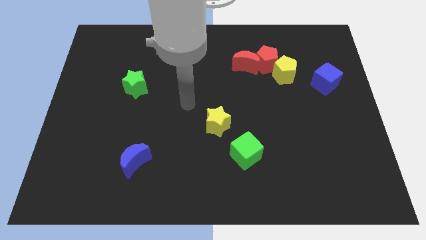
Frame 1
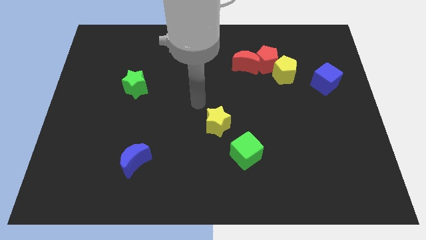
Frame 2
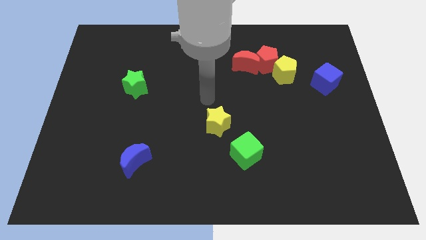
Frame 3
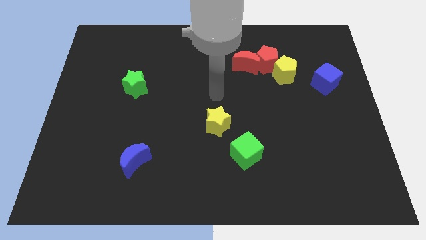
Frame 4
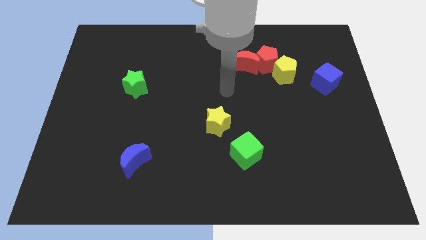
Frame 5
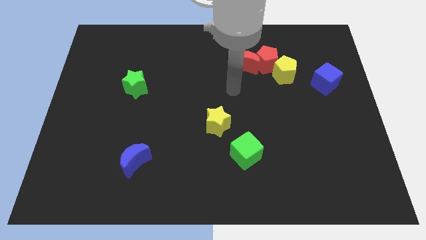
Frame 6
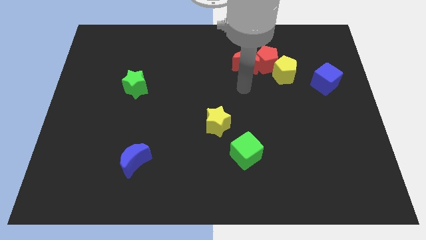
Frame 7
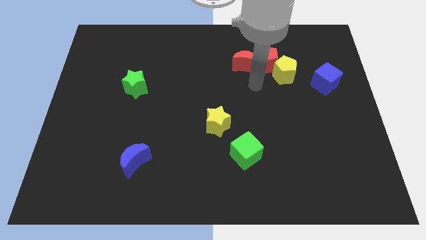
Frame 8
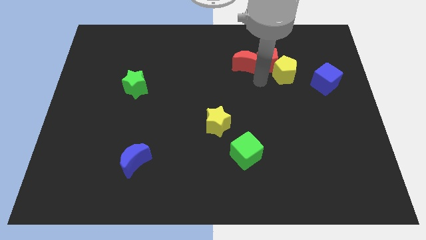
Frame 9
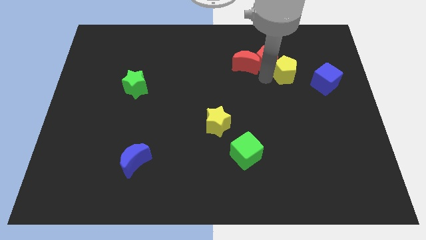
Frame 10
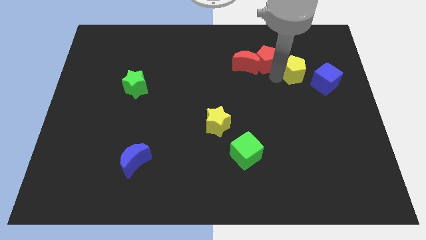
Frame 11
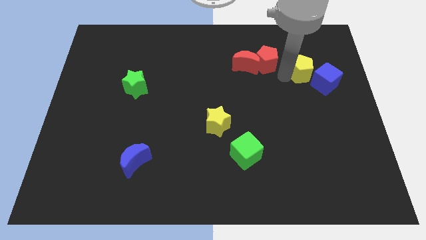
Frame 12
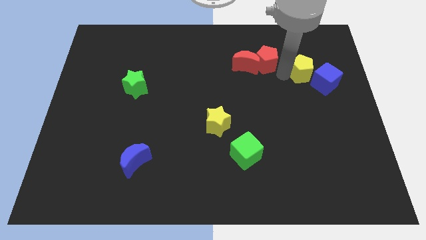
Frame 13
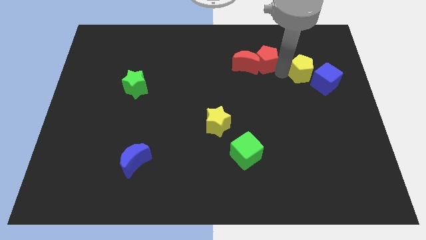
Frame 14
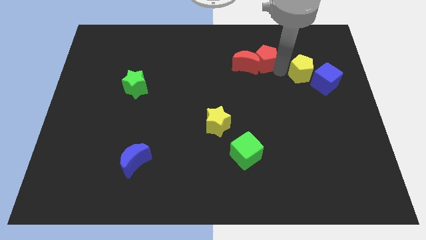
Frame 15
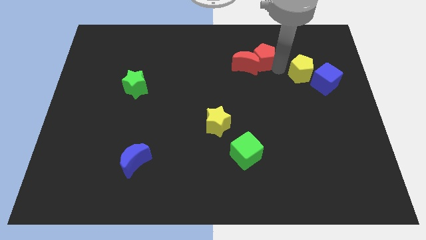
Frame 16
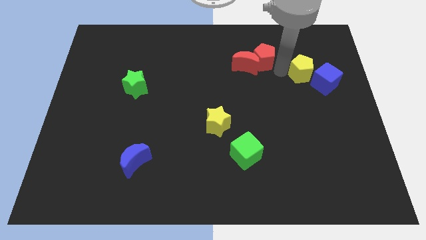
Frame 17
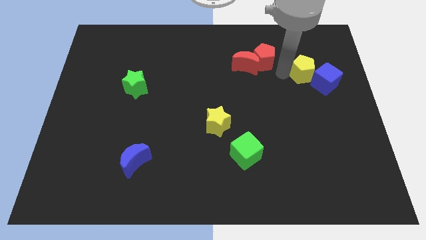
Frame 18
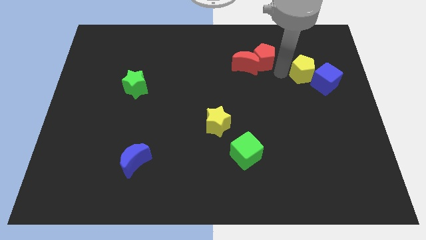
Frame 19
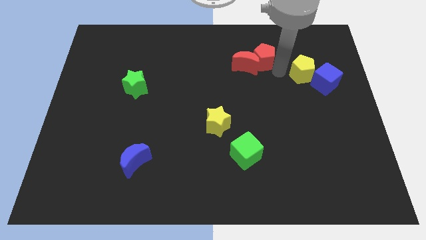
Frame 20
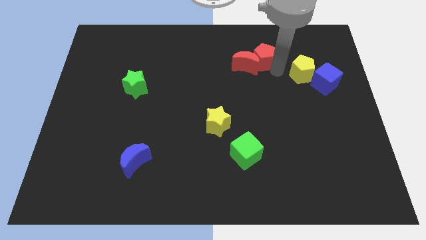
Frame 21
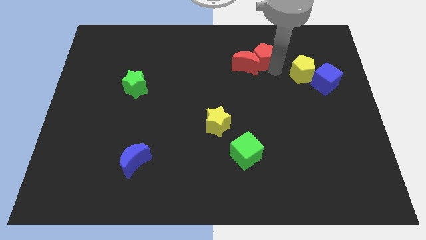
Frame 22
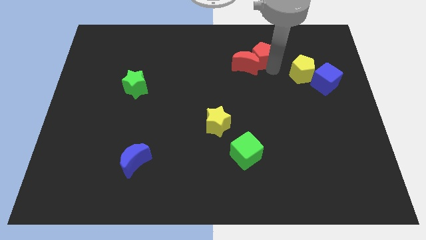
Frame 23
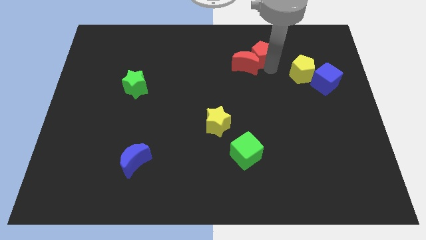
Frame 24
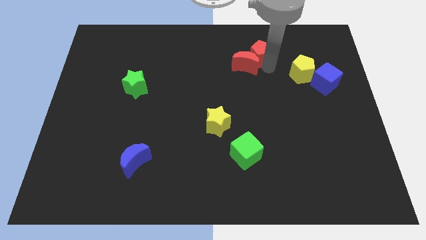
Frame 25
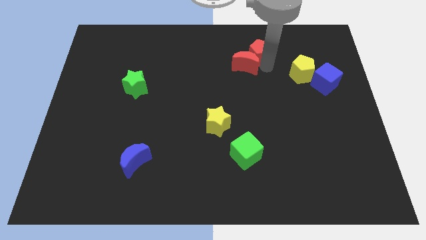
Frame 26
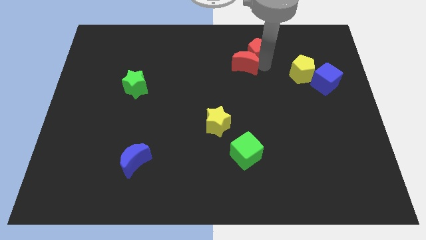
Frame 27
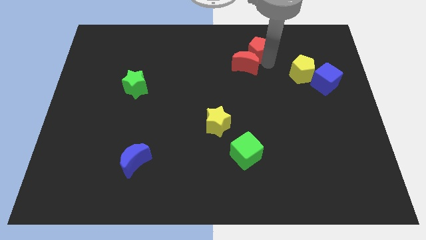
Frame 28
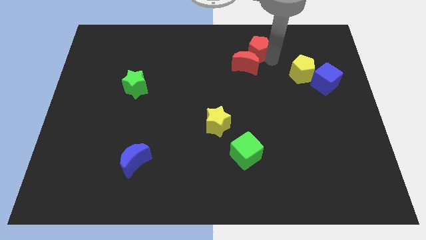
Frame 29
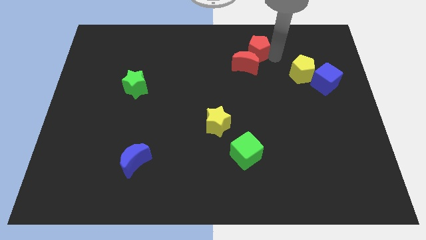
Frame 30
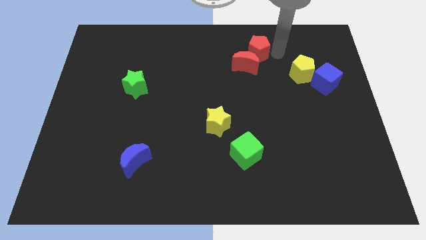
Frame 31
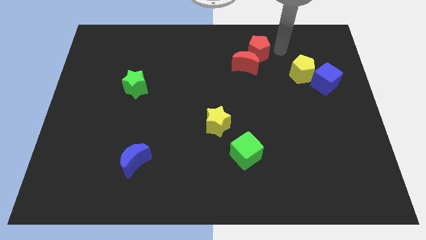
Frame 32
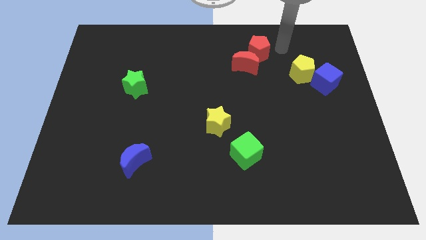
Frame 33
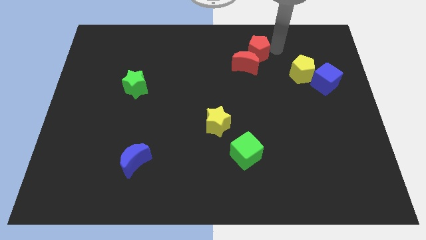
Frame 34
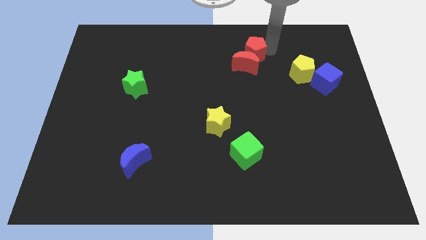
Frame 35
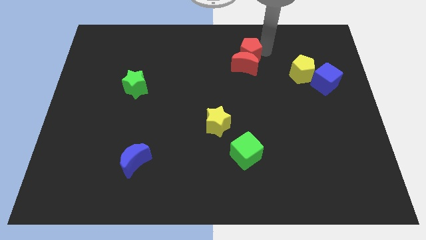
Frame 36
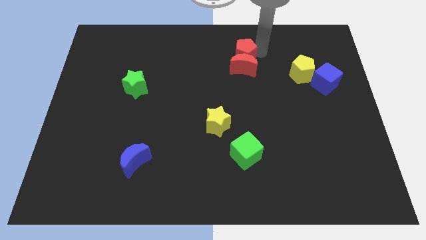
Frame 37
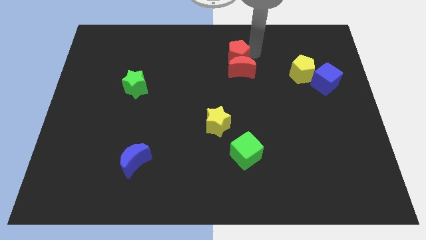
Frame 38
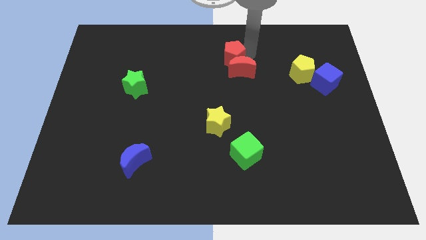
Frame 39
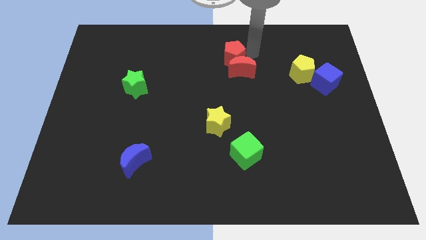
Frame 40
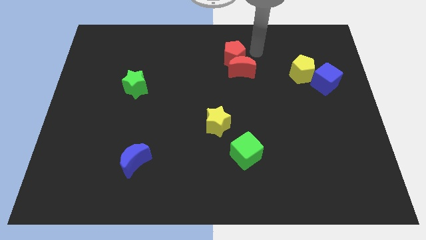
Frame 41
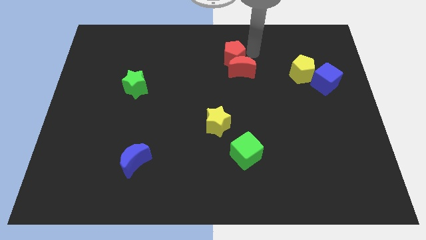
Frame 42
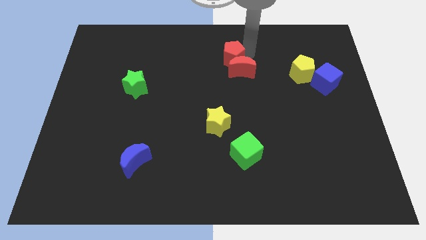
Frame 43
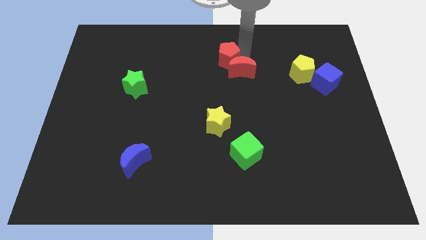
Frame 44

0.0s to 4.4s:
push the red pentagon left of the red moon

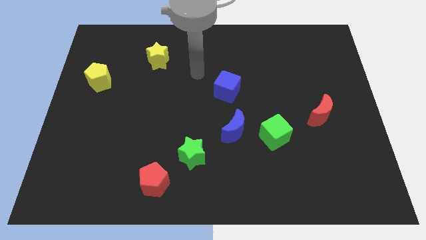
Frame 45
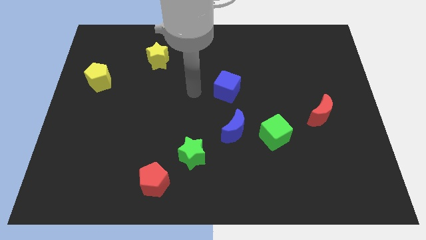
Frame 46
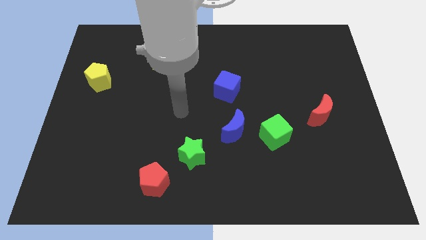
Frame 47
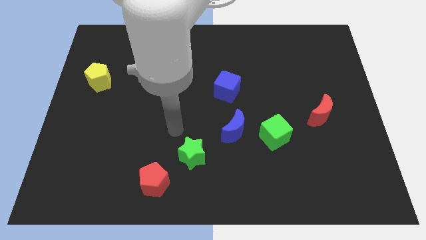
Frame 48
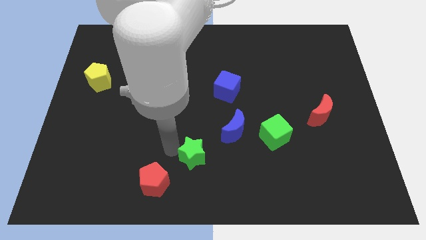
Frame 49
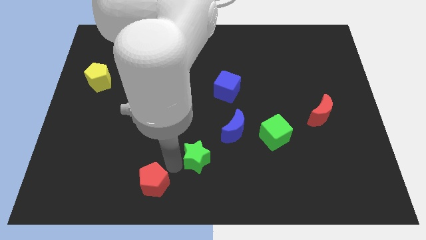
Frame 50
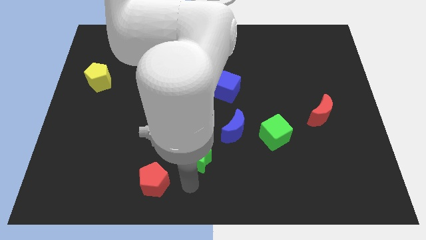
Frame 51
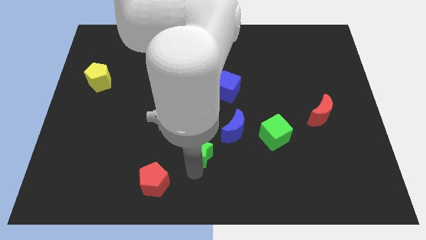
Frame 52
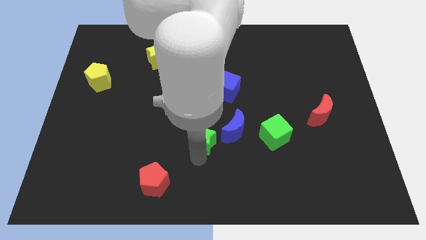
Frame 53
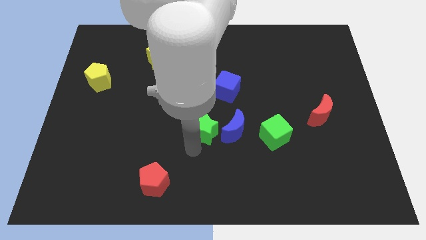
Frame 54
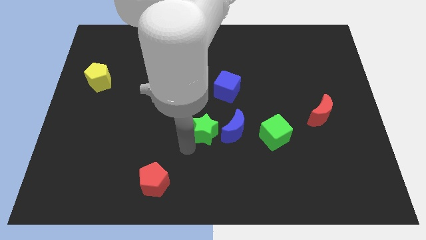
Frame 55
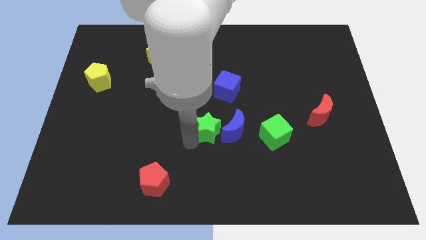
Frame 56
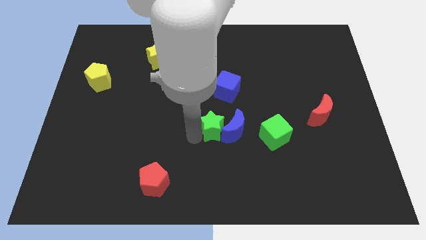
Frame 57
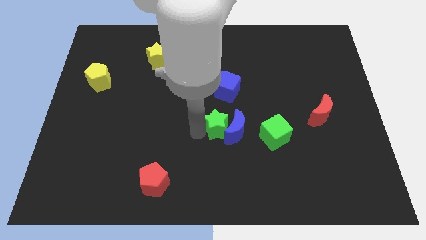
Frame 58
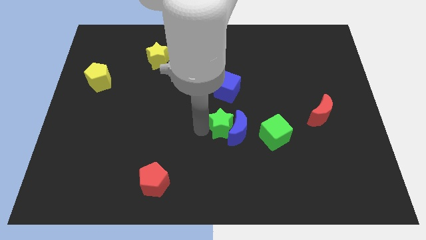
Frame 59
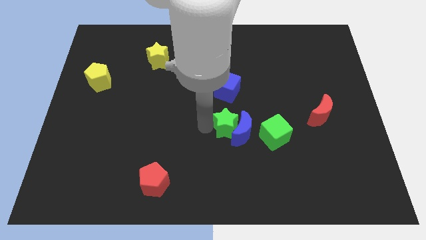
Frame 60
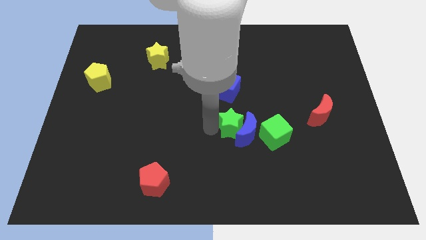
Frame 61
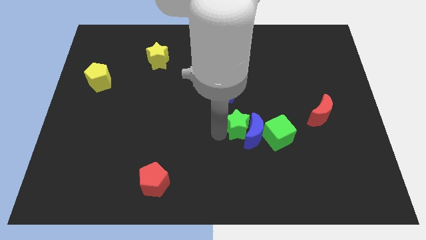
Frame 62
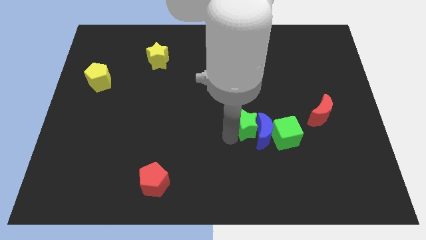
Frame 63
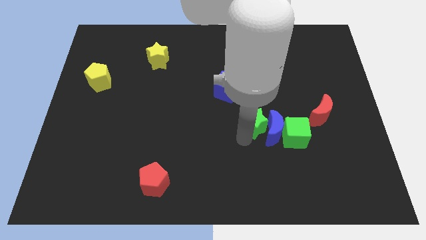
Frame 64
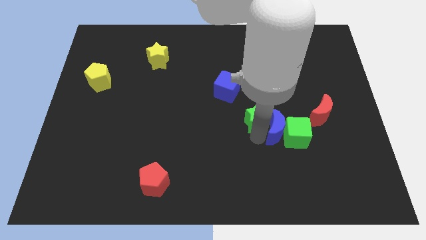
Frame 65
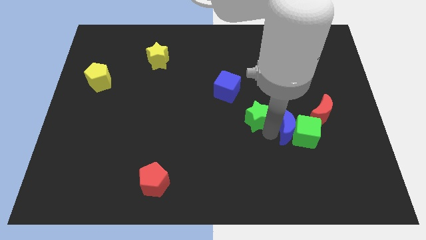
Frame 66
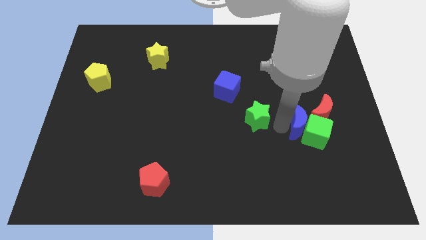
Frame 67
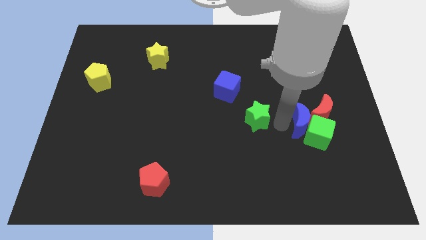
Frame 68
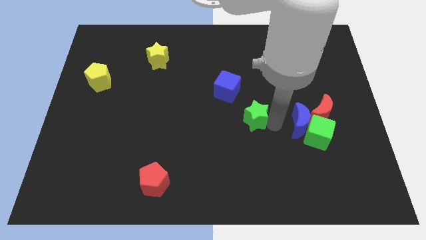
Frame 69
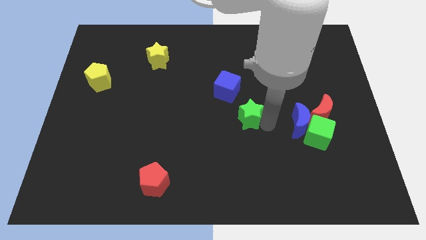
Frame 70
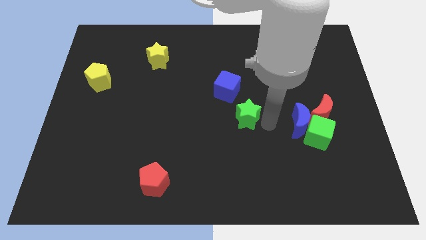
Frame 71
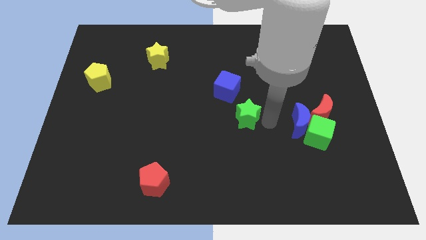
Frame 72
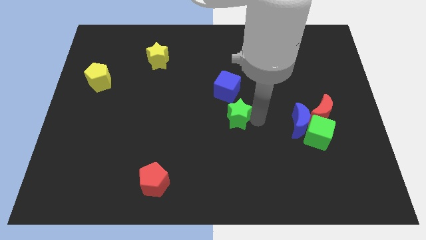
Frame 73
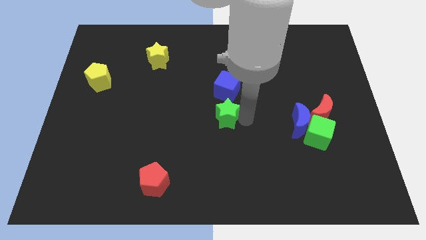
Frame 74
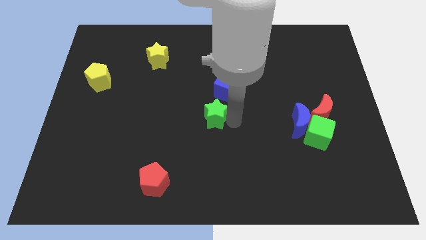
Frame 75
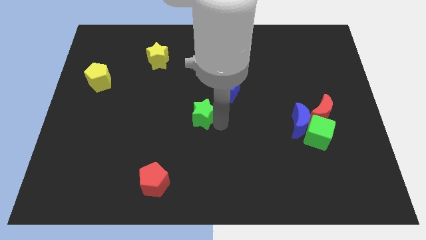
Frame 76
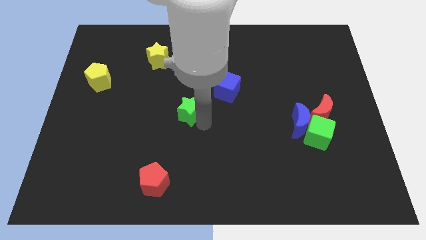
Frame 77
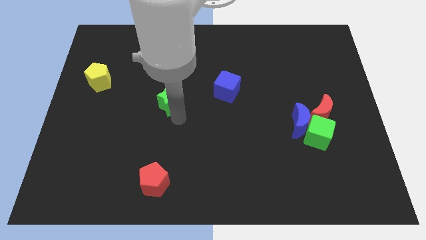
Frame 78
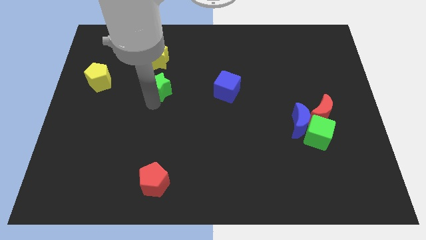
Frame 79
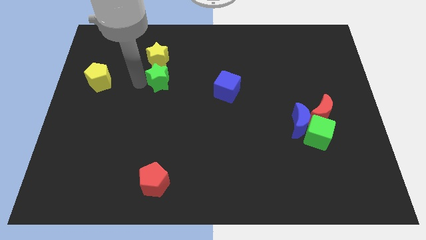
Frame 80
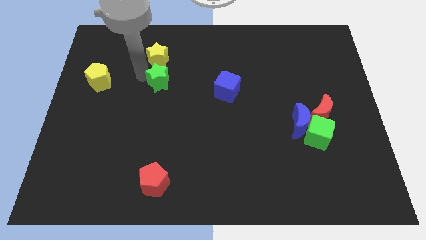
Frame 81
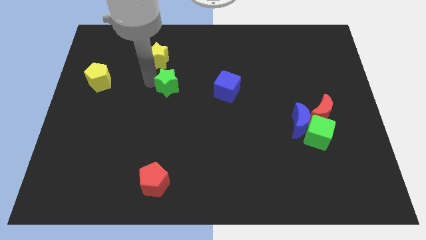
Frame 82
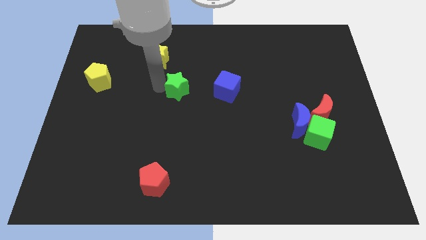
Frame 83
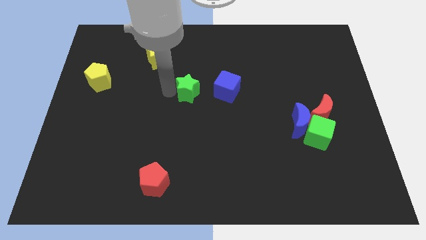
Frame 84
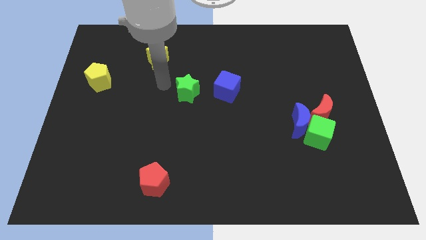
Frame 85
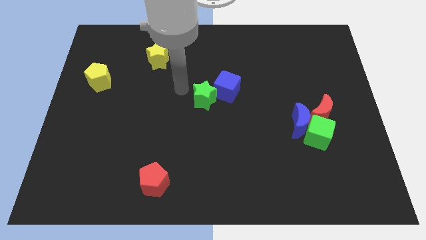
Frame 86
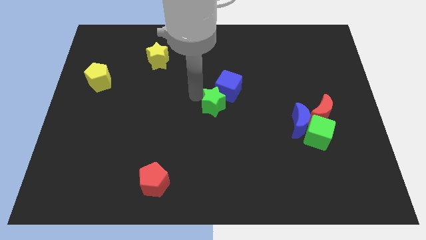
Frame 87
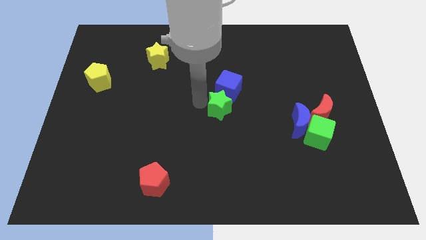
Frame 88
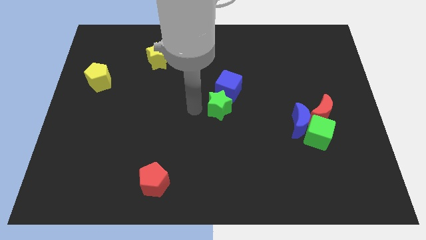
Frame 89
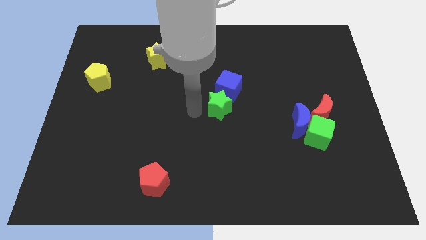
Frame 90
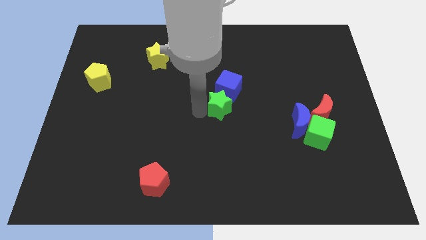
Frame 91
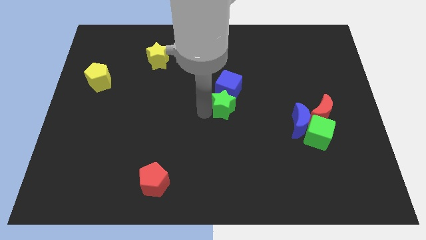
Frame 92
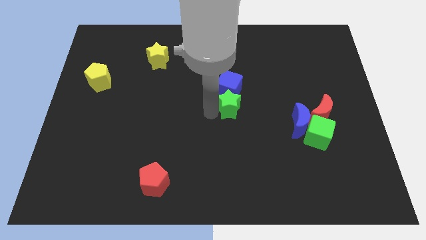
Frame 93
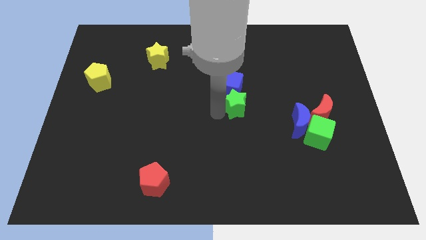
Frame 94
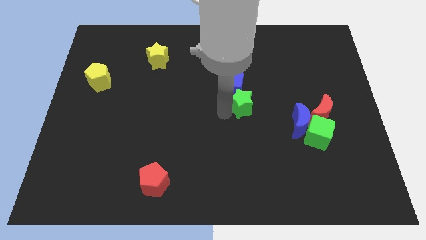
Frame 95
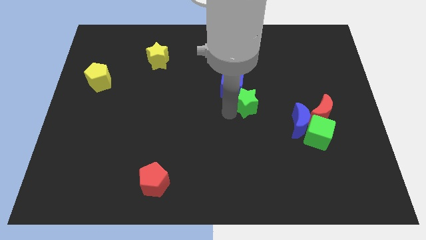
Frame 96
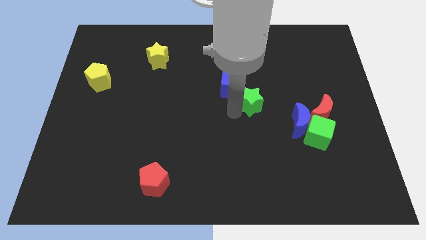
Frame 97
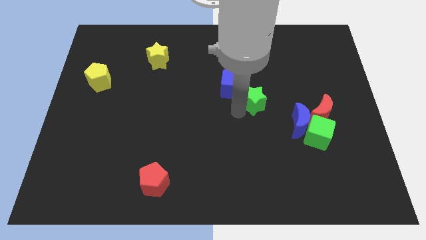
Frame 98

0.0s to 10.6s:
put the green star to the right side of the blue cube
